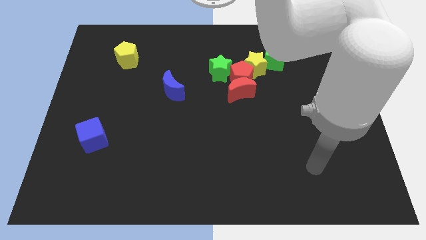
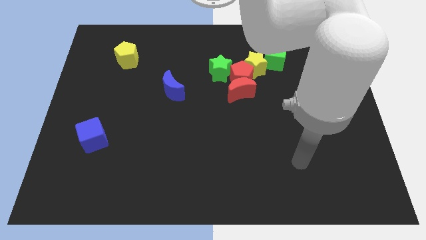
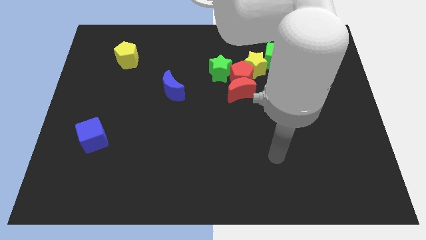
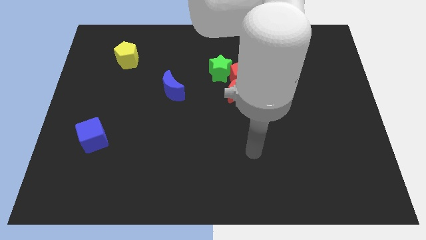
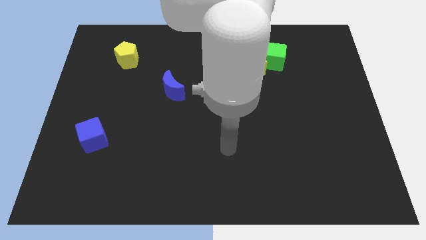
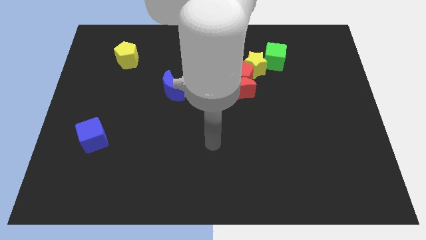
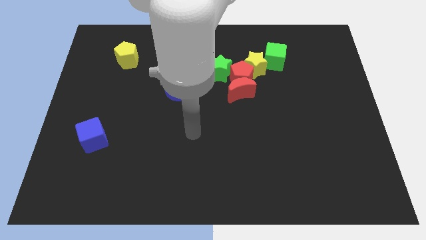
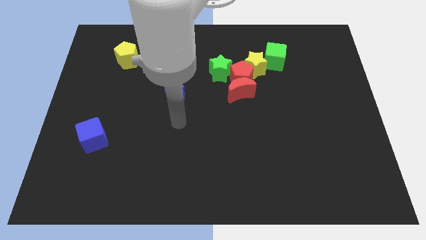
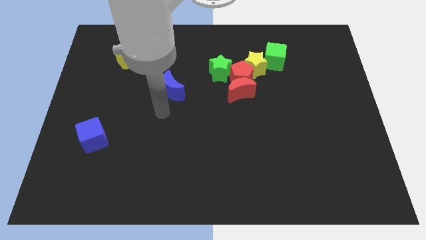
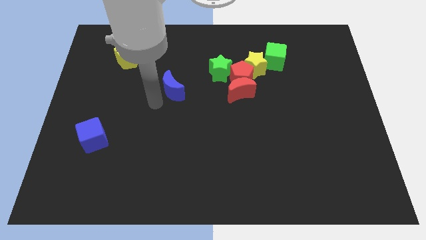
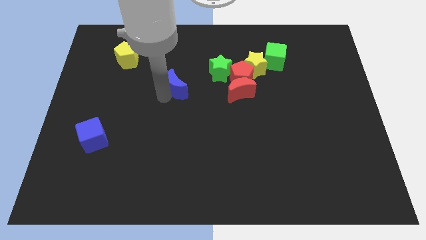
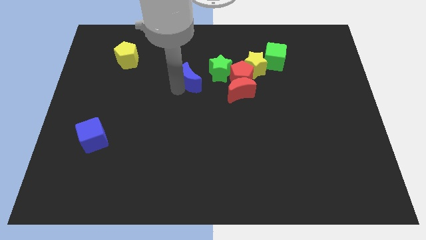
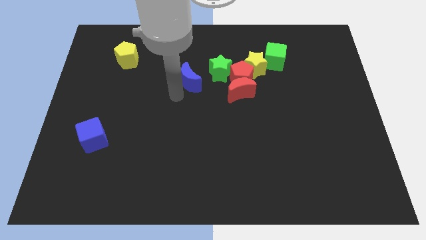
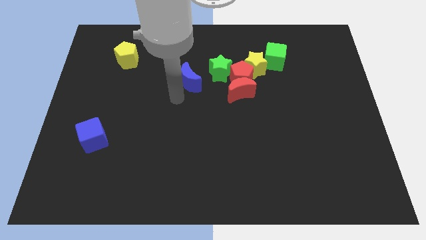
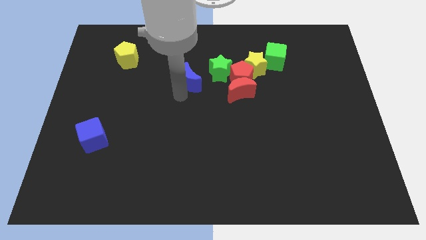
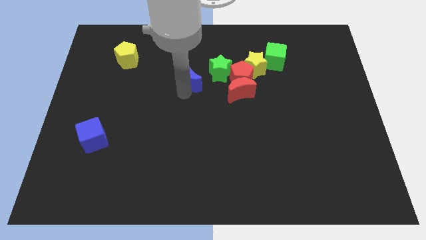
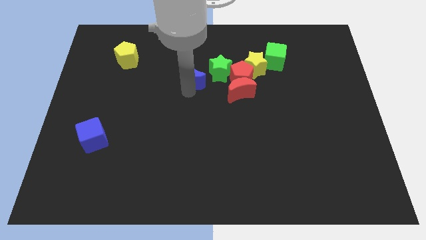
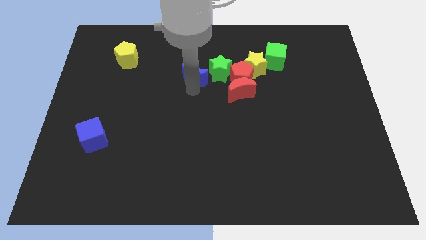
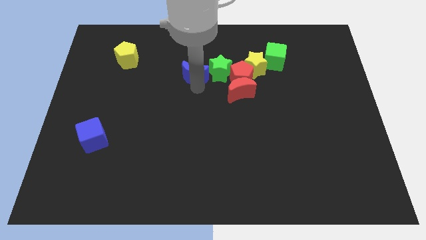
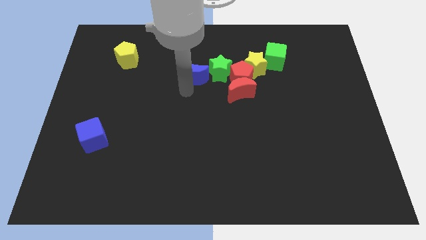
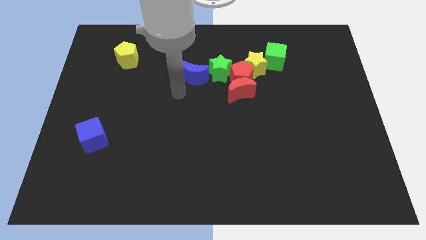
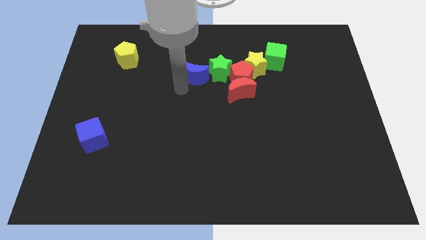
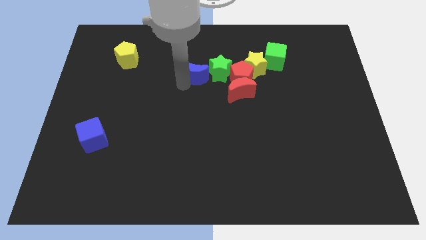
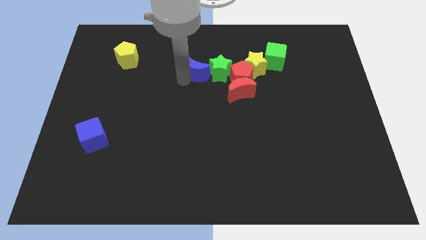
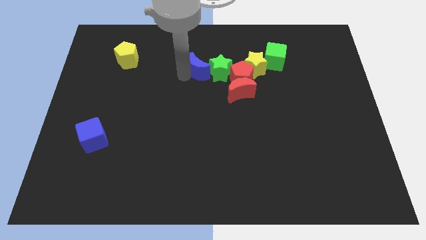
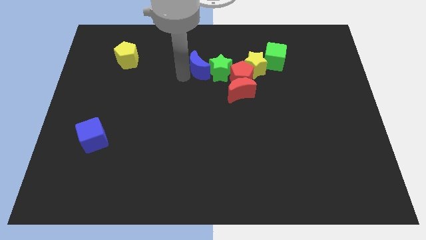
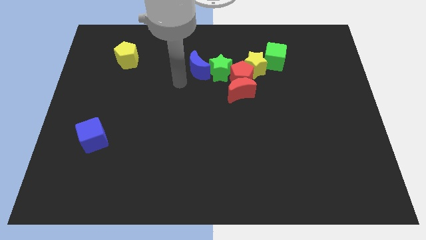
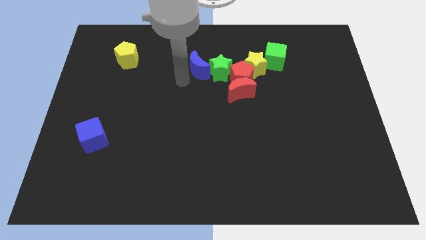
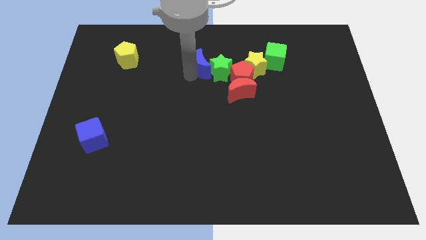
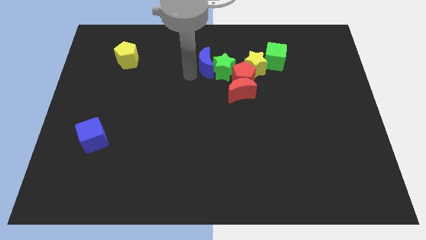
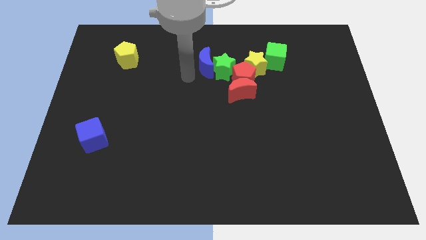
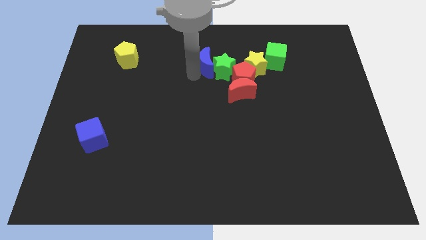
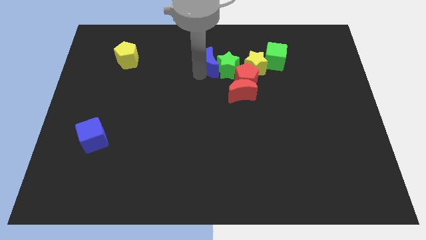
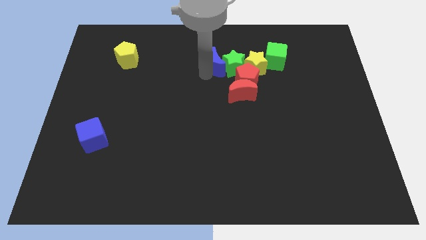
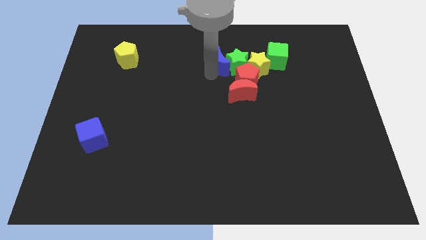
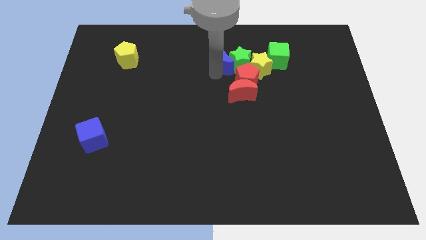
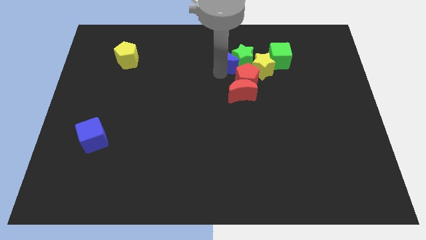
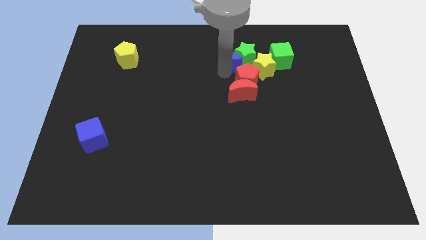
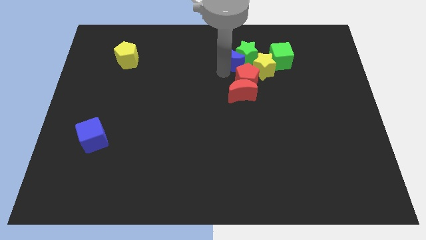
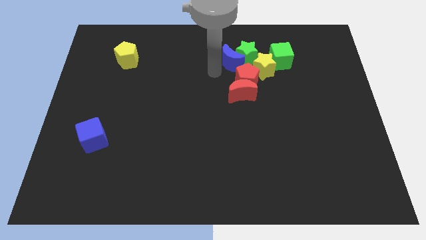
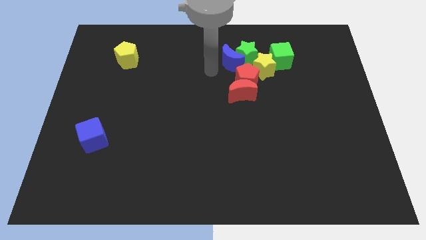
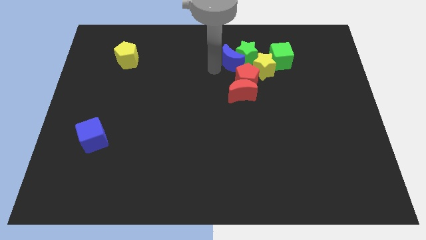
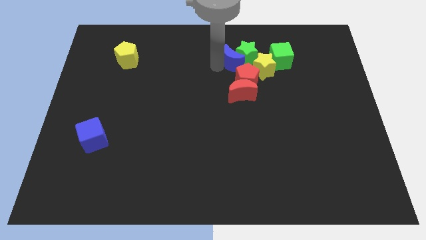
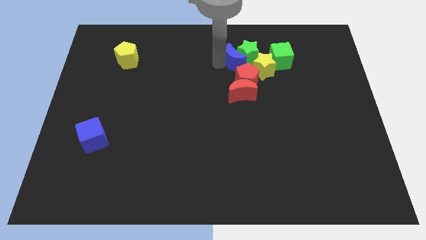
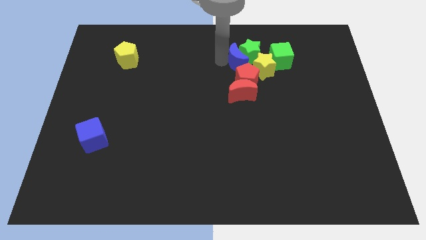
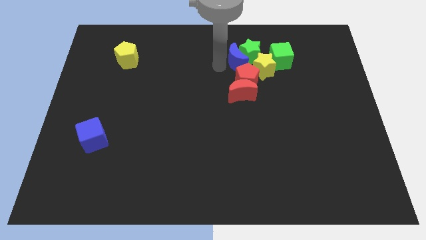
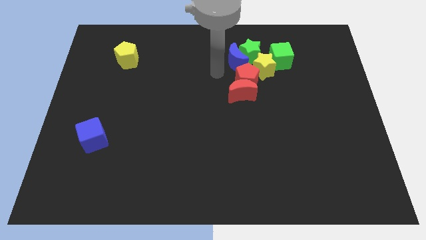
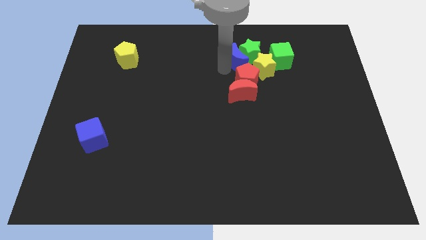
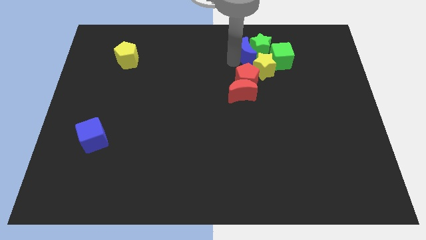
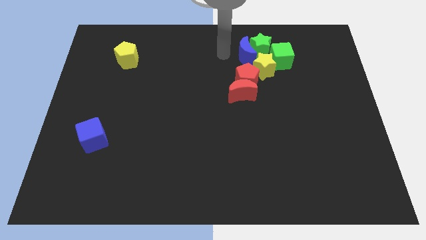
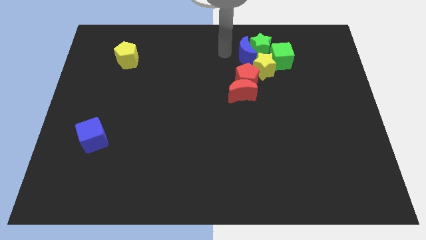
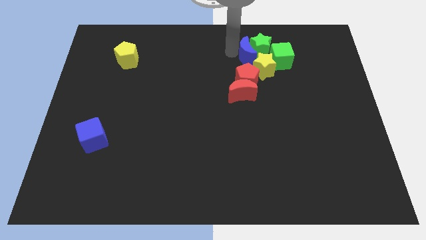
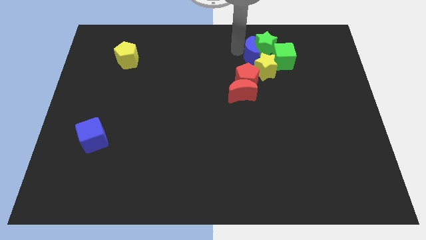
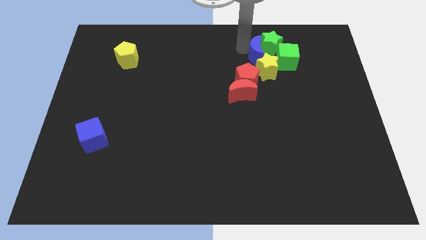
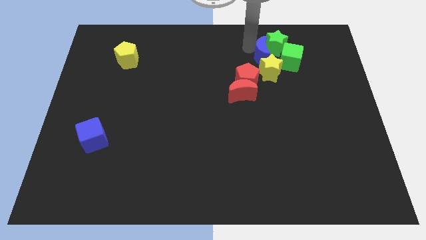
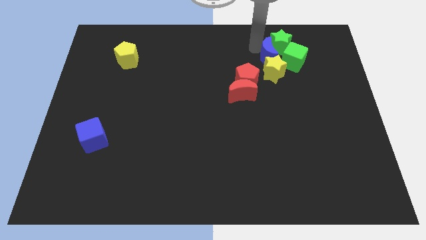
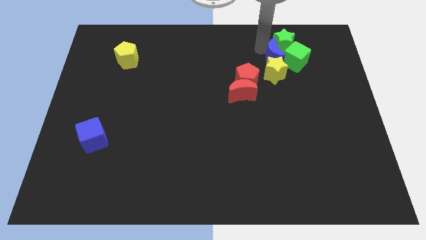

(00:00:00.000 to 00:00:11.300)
move the blue moon close to the green cube
